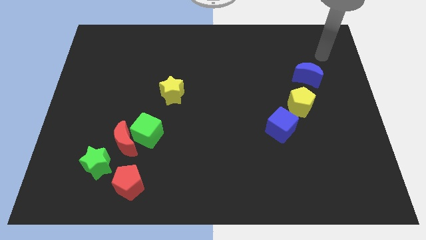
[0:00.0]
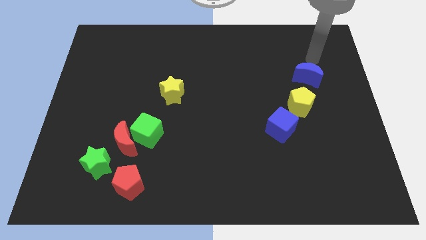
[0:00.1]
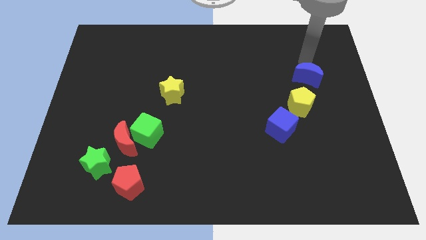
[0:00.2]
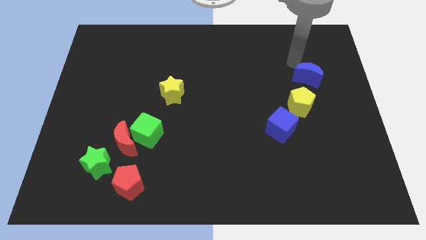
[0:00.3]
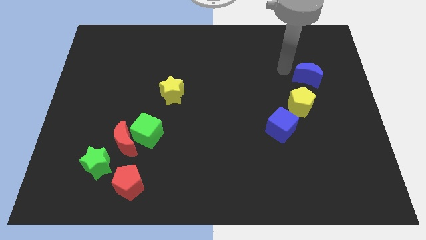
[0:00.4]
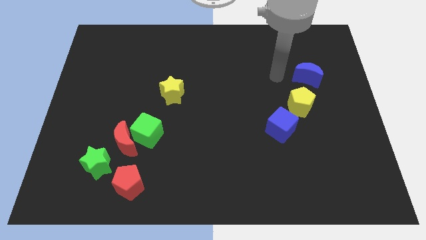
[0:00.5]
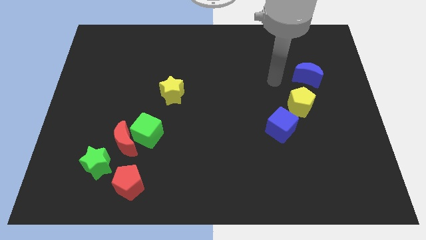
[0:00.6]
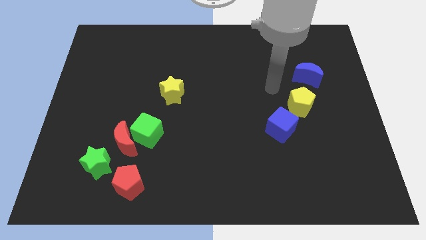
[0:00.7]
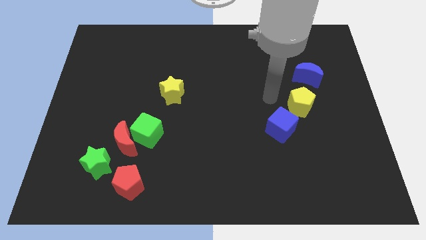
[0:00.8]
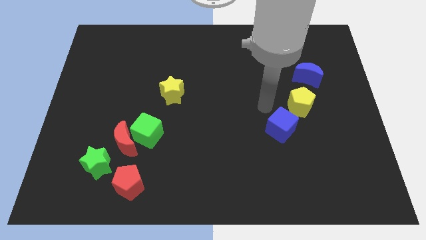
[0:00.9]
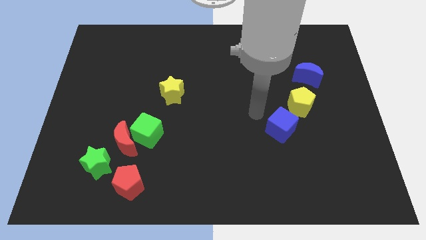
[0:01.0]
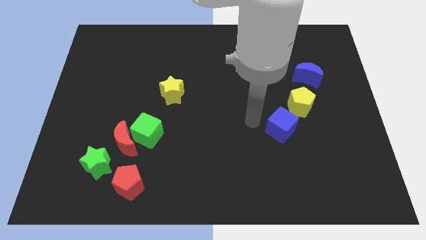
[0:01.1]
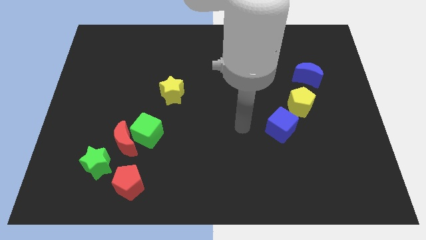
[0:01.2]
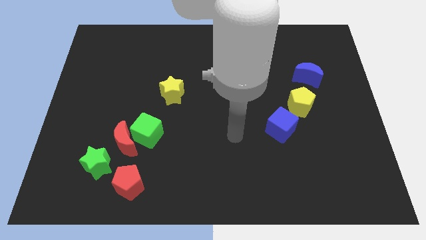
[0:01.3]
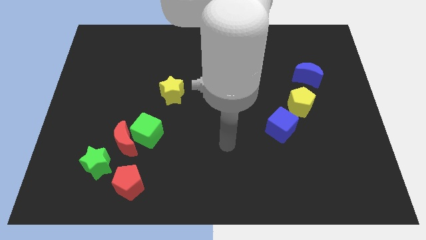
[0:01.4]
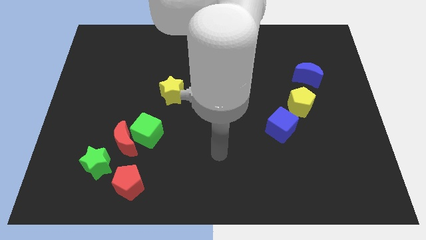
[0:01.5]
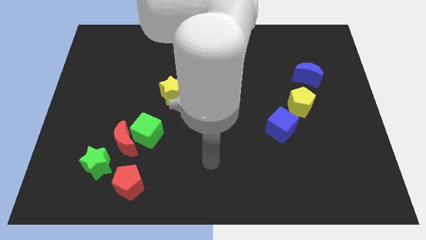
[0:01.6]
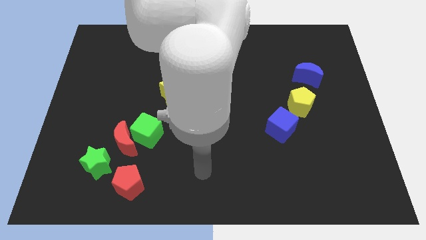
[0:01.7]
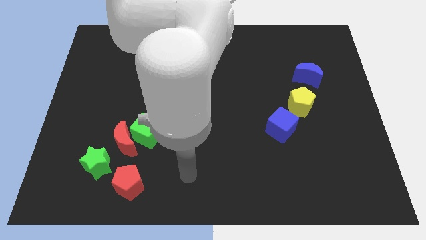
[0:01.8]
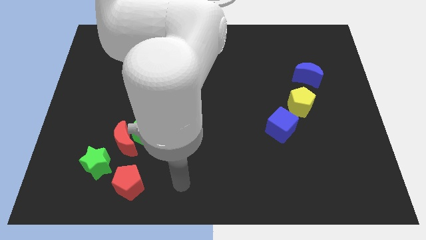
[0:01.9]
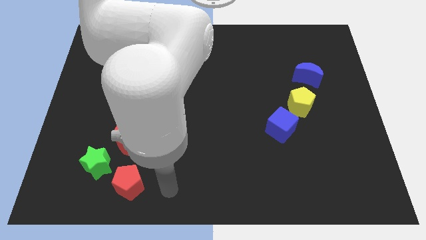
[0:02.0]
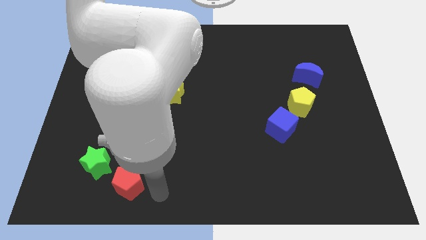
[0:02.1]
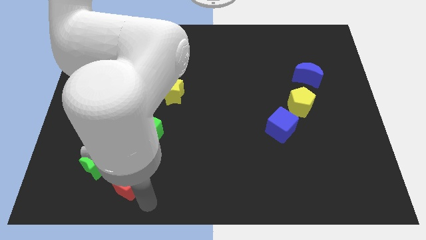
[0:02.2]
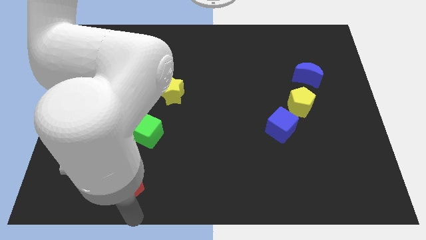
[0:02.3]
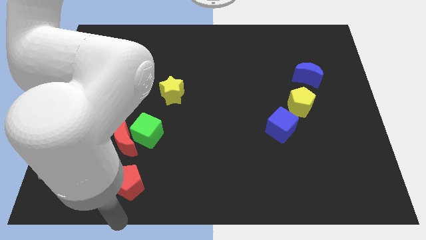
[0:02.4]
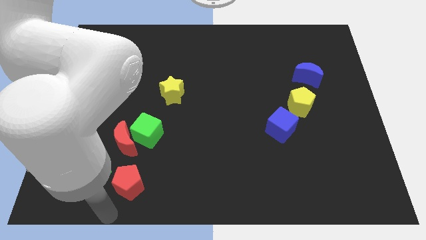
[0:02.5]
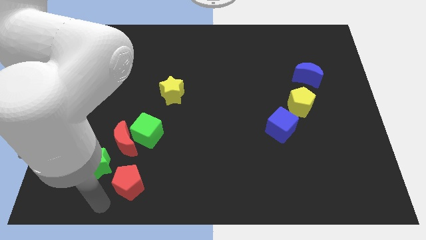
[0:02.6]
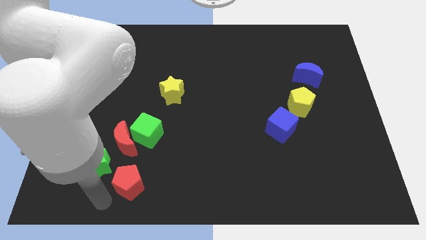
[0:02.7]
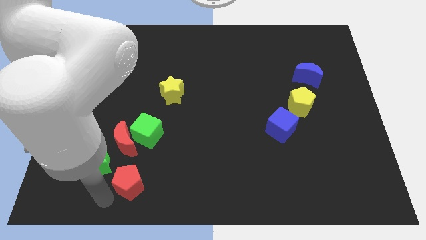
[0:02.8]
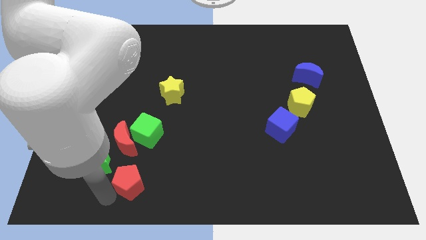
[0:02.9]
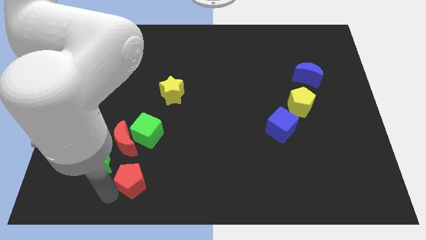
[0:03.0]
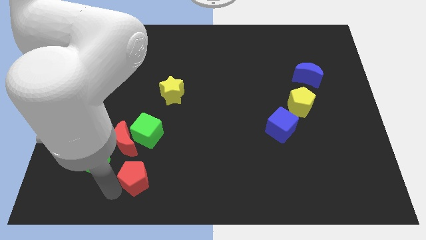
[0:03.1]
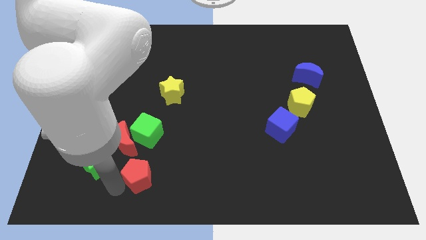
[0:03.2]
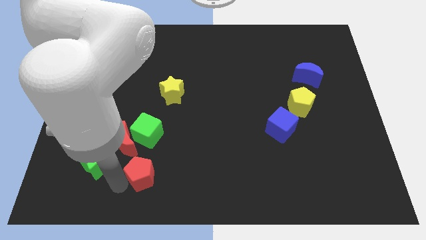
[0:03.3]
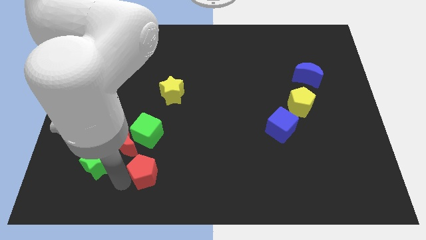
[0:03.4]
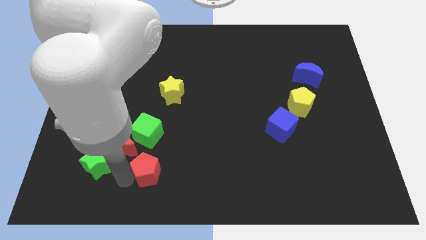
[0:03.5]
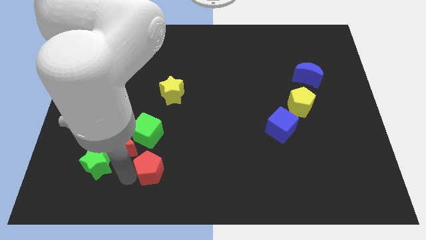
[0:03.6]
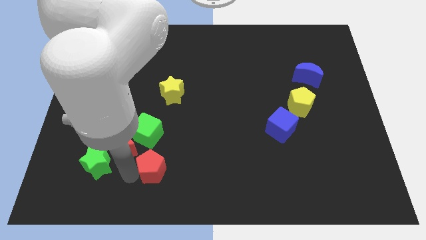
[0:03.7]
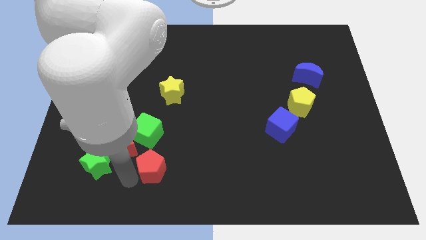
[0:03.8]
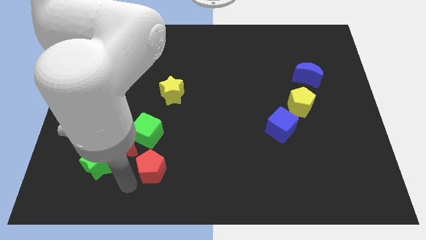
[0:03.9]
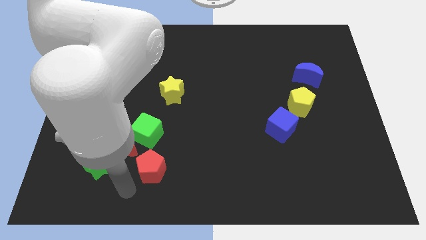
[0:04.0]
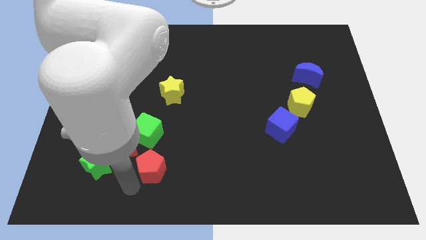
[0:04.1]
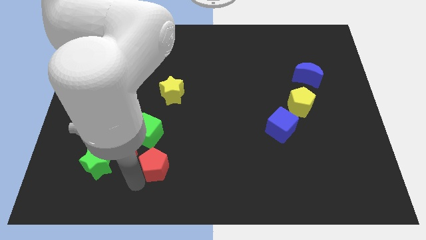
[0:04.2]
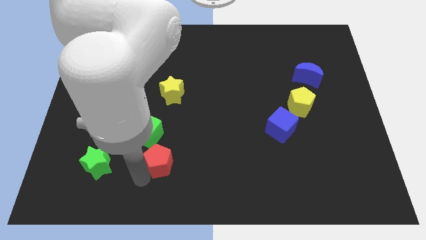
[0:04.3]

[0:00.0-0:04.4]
slightly slide the red pentagon upwards and right diagonally

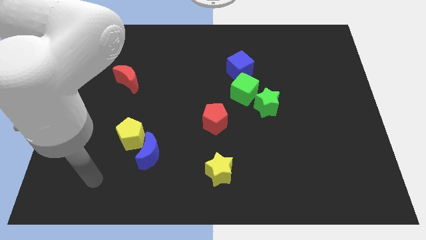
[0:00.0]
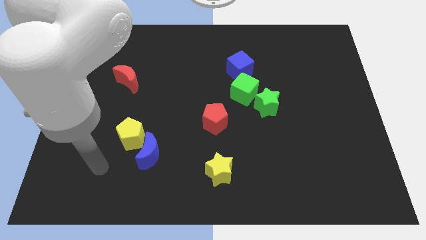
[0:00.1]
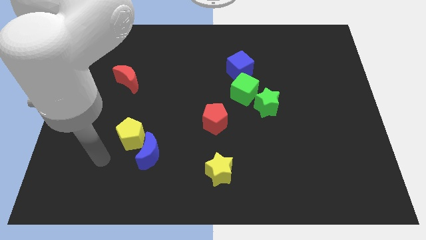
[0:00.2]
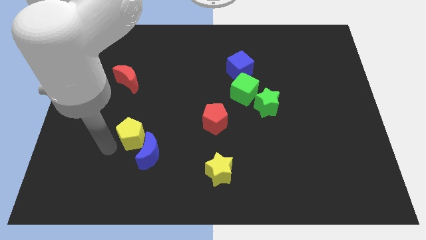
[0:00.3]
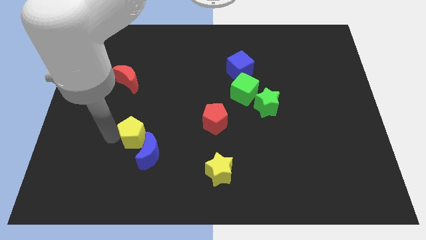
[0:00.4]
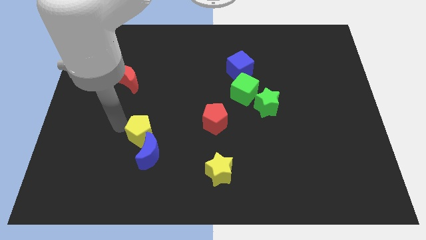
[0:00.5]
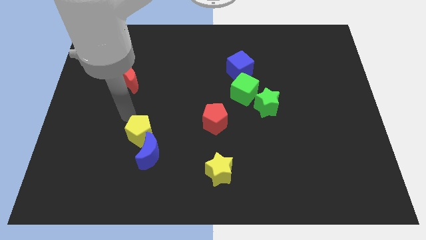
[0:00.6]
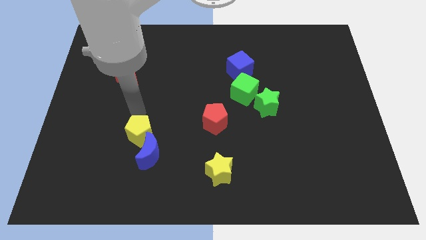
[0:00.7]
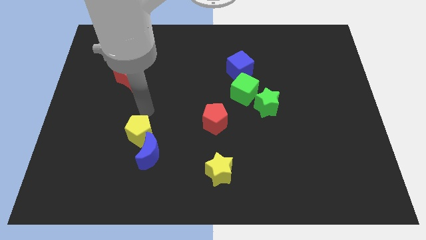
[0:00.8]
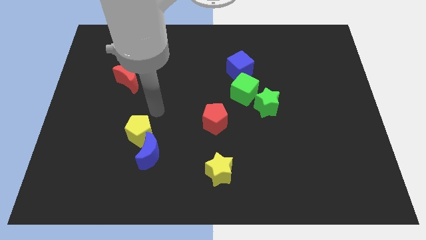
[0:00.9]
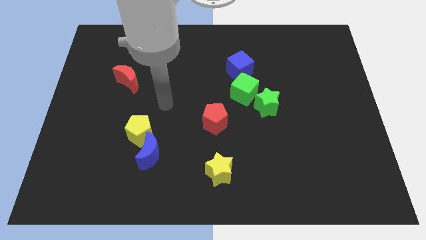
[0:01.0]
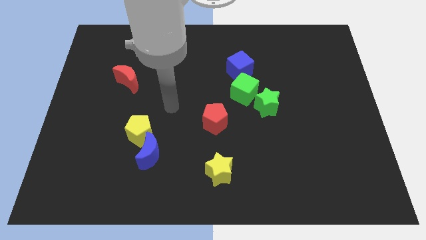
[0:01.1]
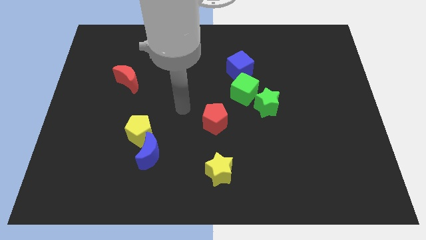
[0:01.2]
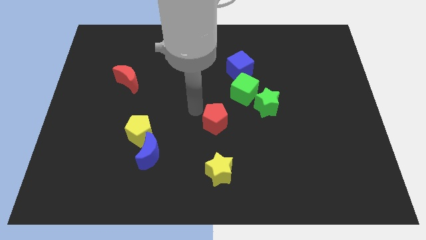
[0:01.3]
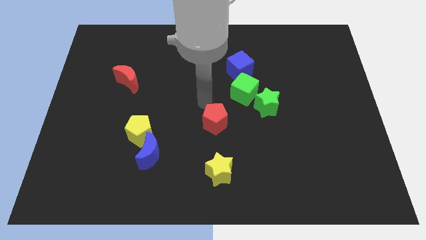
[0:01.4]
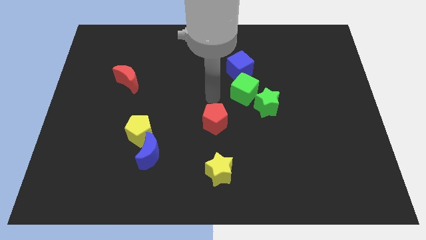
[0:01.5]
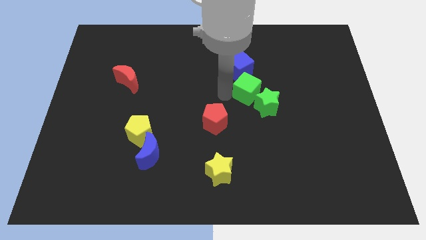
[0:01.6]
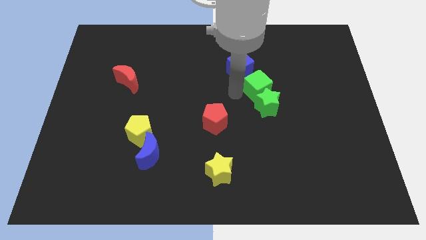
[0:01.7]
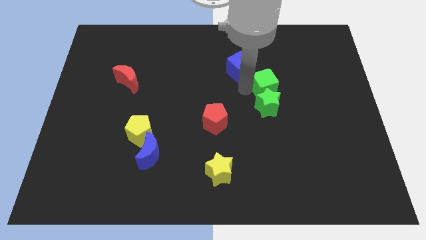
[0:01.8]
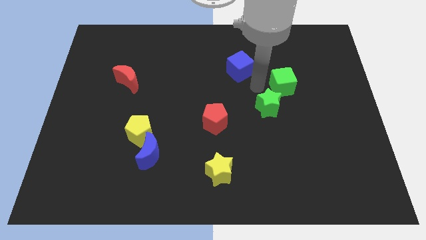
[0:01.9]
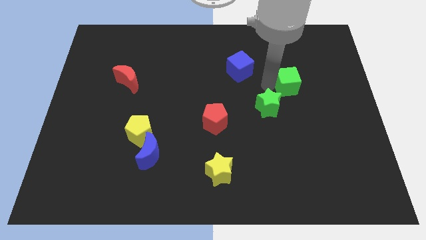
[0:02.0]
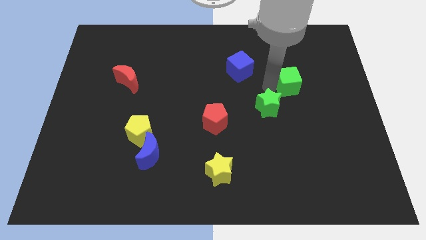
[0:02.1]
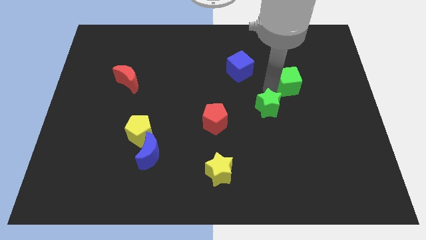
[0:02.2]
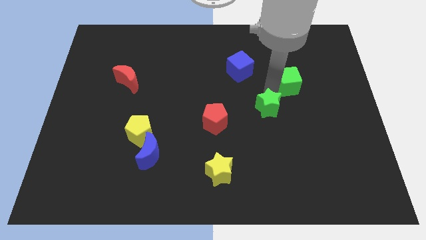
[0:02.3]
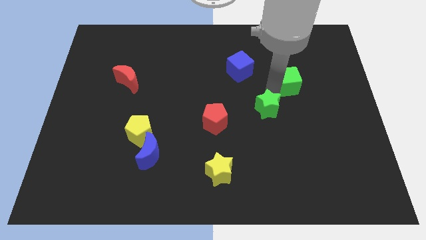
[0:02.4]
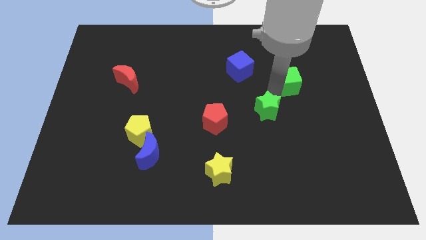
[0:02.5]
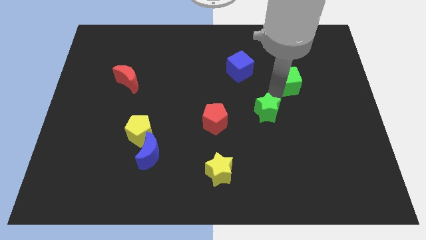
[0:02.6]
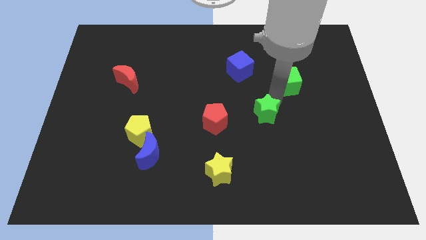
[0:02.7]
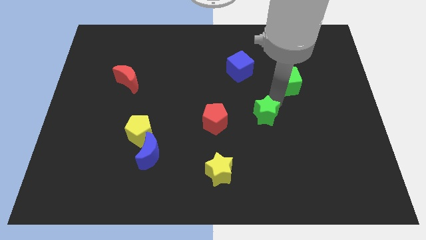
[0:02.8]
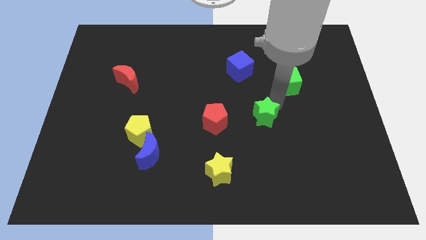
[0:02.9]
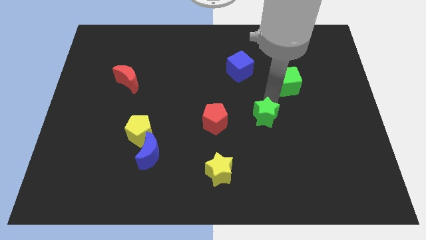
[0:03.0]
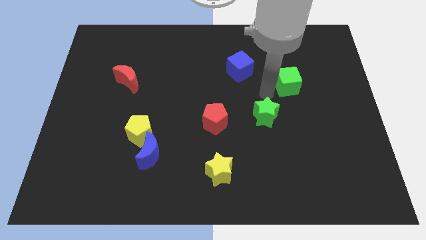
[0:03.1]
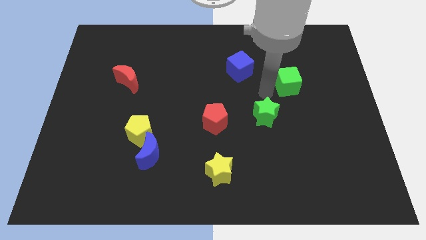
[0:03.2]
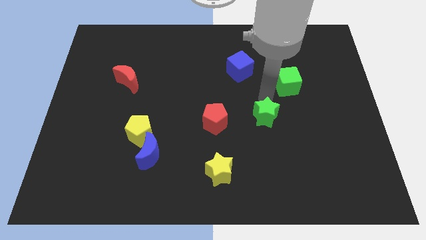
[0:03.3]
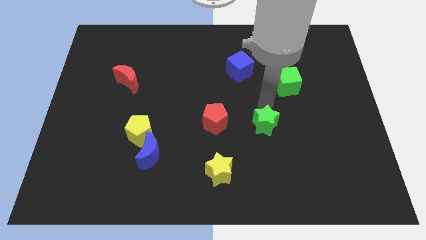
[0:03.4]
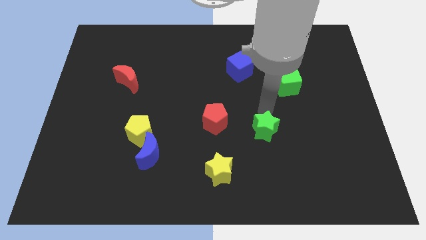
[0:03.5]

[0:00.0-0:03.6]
slightly move the green star down
